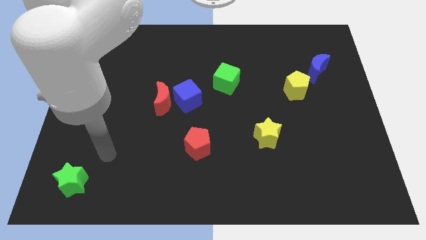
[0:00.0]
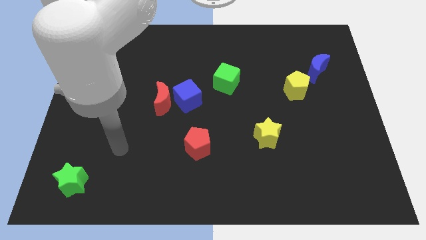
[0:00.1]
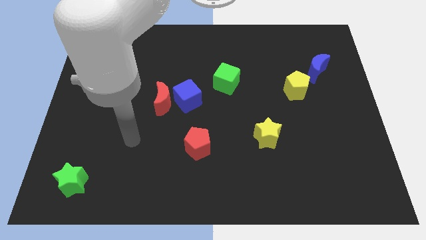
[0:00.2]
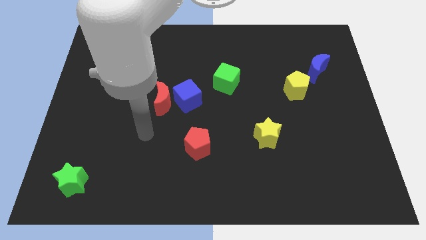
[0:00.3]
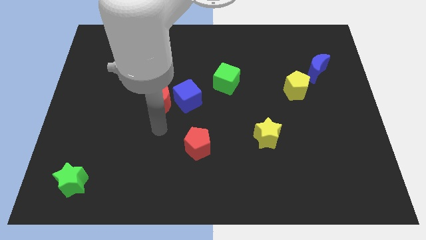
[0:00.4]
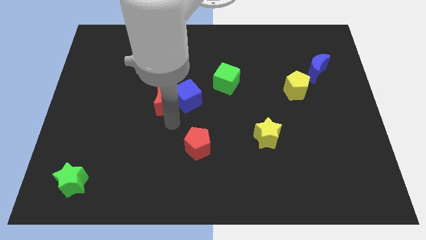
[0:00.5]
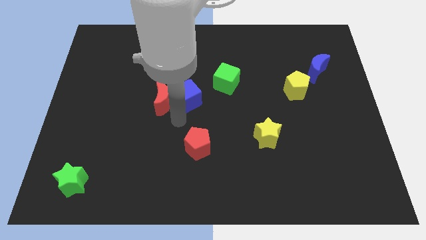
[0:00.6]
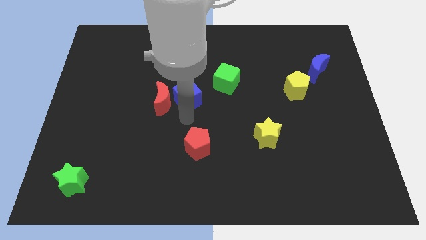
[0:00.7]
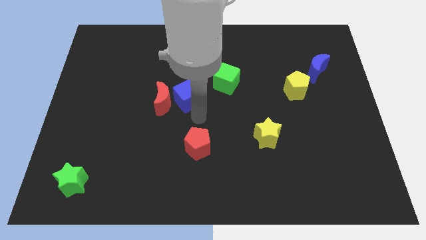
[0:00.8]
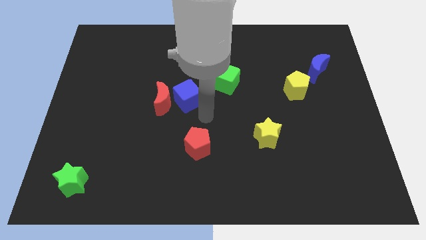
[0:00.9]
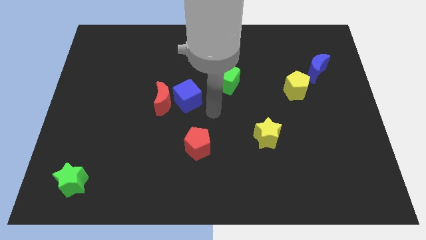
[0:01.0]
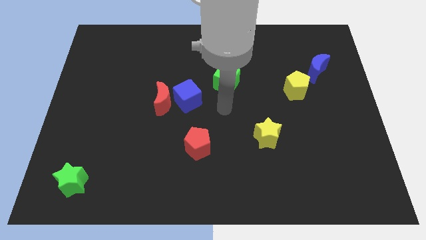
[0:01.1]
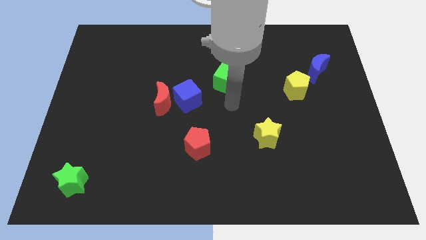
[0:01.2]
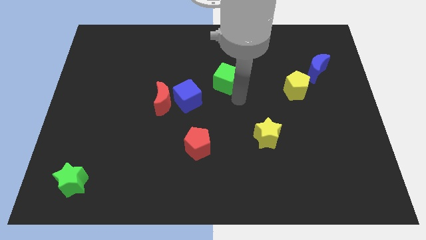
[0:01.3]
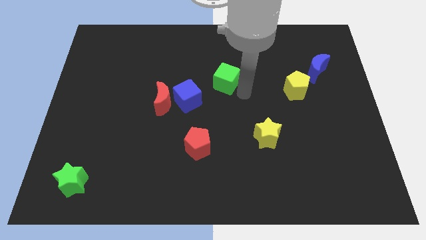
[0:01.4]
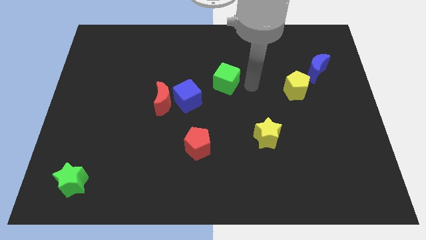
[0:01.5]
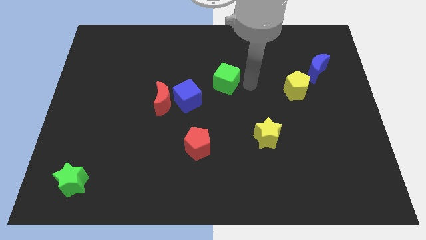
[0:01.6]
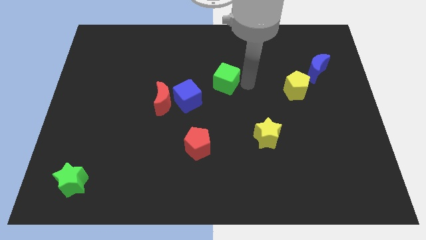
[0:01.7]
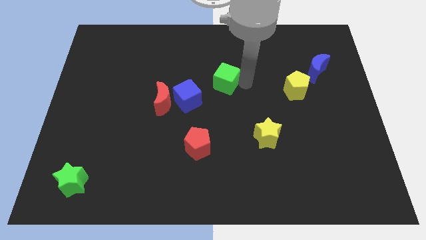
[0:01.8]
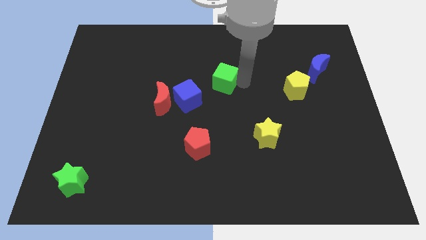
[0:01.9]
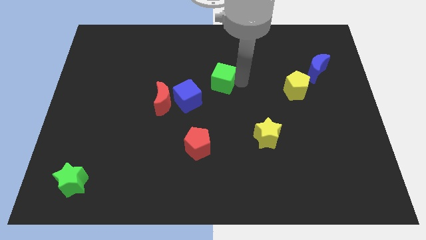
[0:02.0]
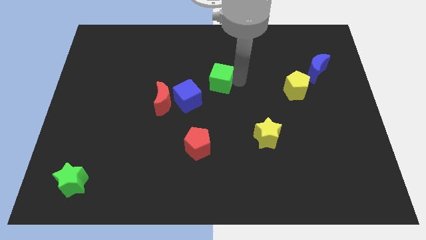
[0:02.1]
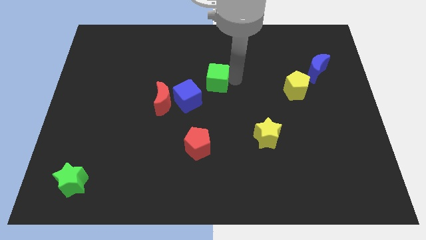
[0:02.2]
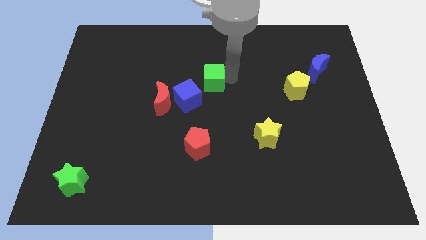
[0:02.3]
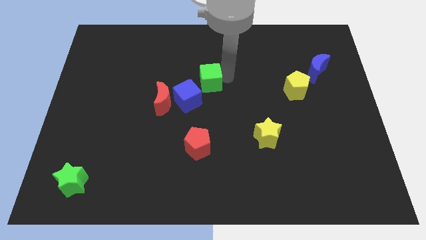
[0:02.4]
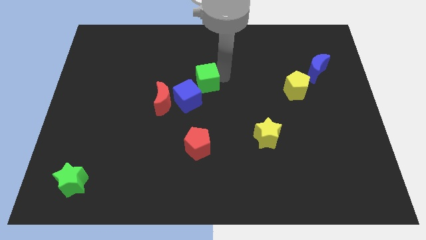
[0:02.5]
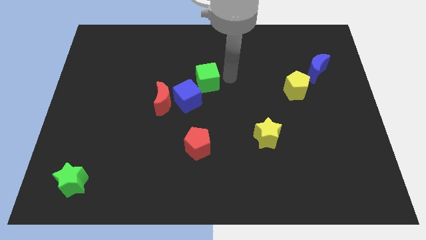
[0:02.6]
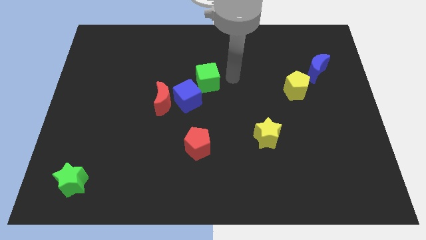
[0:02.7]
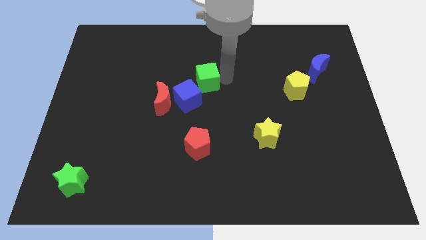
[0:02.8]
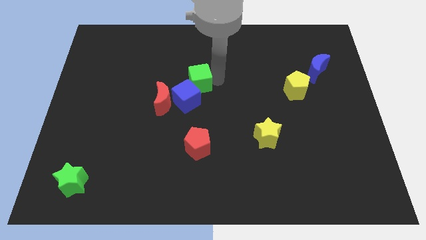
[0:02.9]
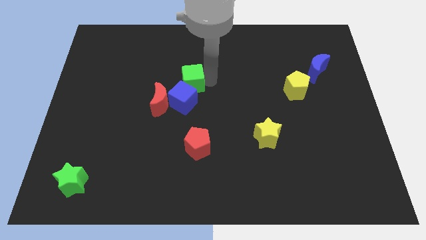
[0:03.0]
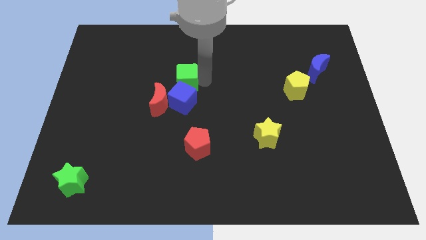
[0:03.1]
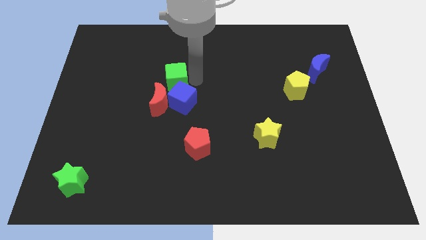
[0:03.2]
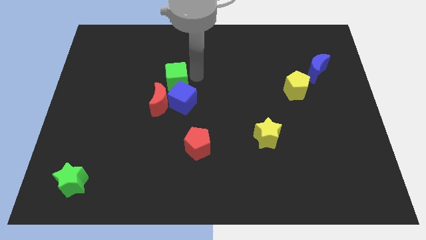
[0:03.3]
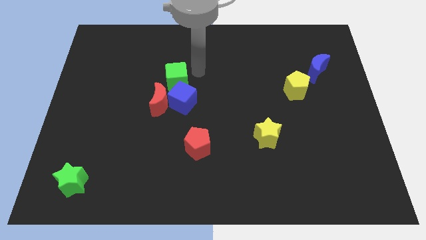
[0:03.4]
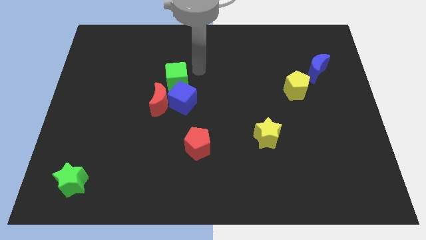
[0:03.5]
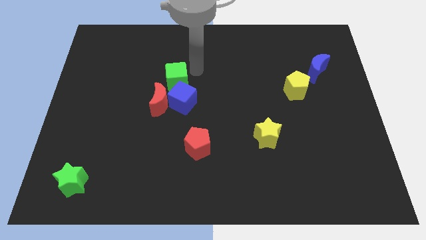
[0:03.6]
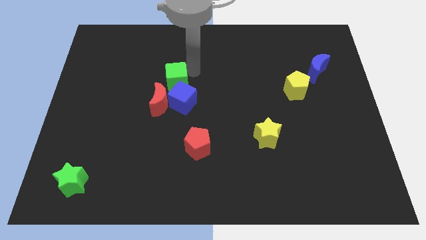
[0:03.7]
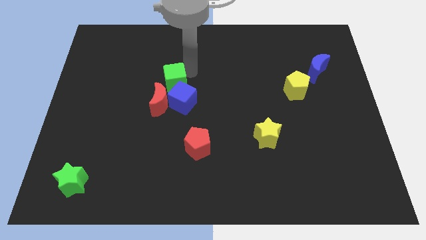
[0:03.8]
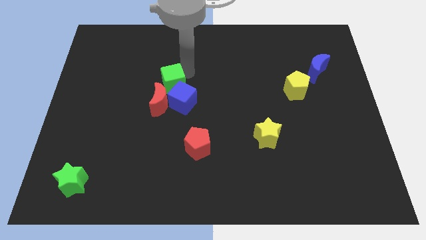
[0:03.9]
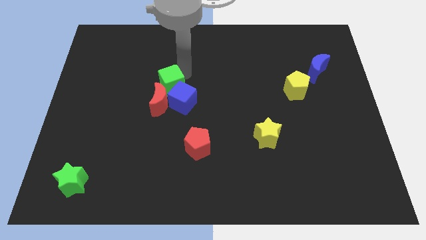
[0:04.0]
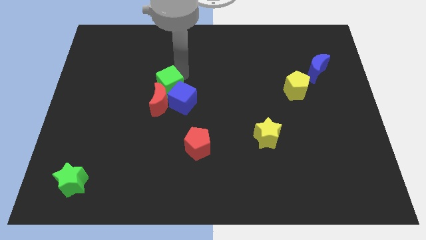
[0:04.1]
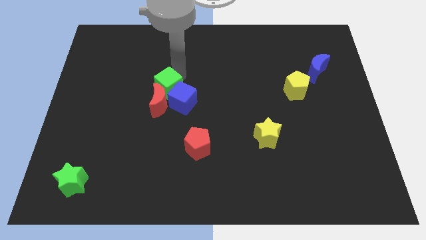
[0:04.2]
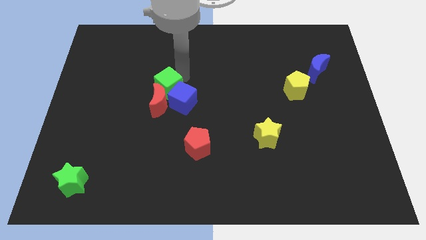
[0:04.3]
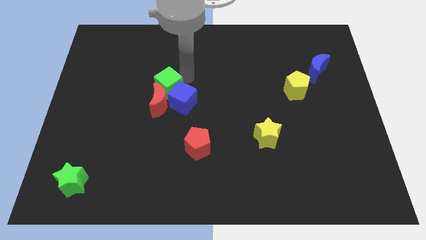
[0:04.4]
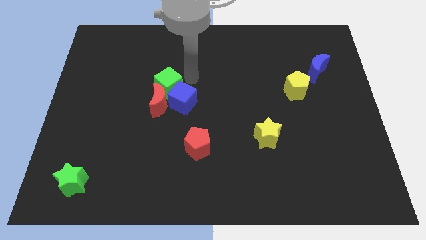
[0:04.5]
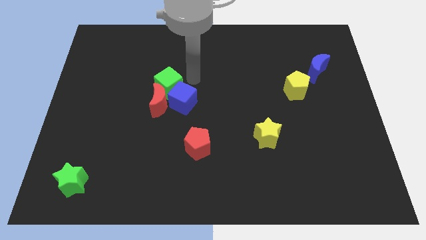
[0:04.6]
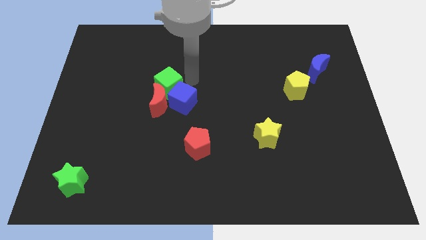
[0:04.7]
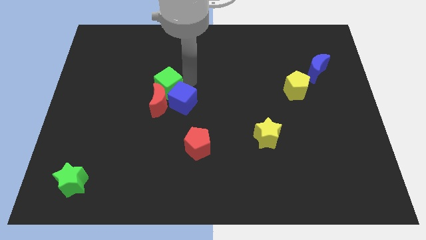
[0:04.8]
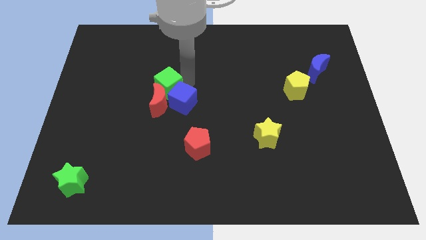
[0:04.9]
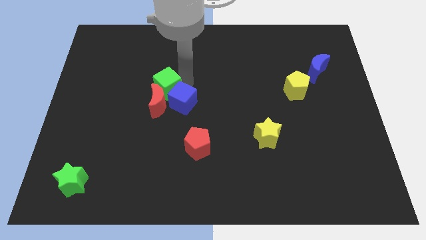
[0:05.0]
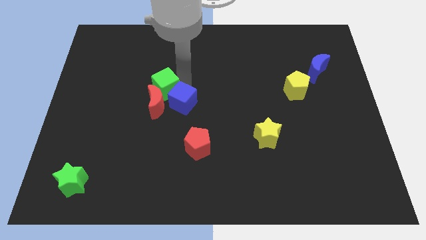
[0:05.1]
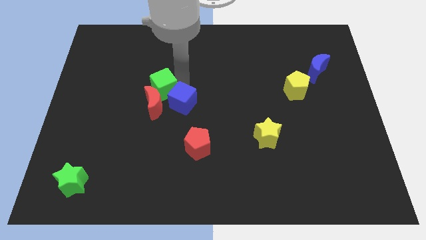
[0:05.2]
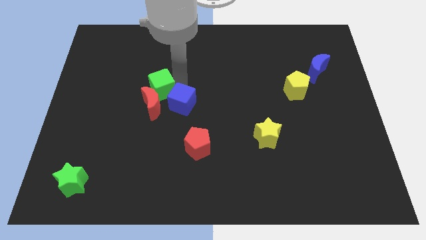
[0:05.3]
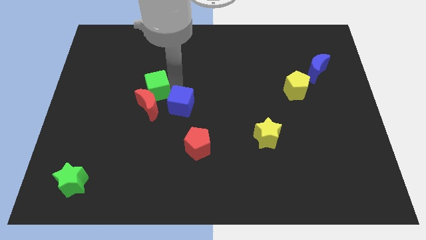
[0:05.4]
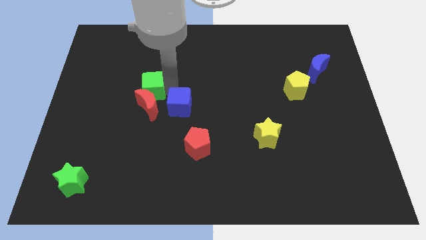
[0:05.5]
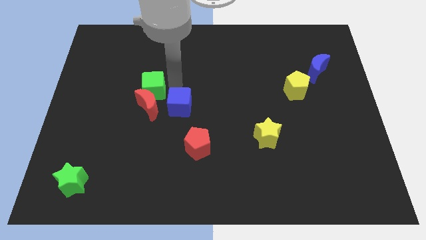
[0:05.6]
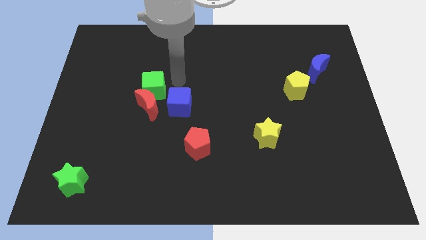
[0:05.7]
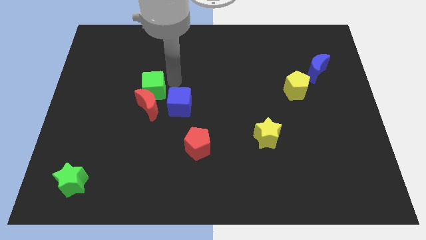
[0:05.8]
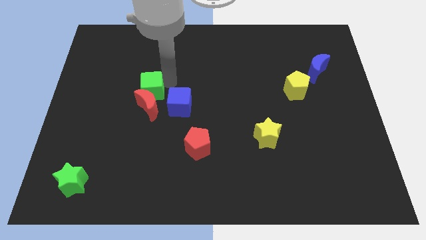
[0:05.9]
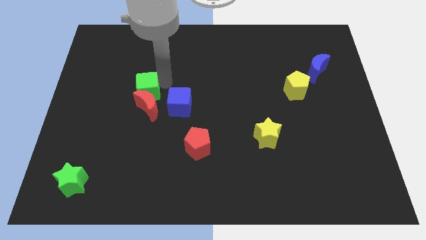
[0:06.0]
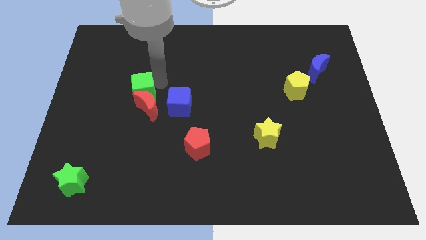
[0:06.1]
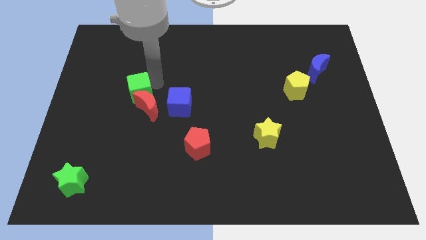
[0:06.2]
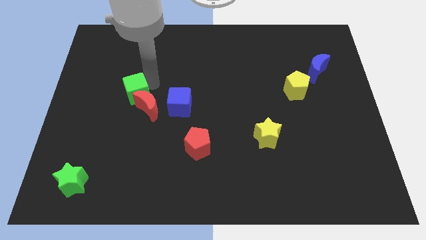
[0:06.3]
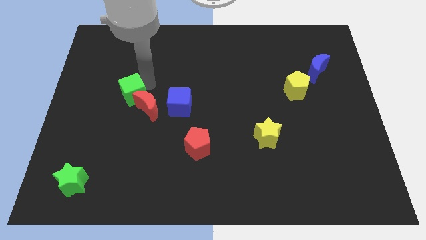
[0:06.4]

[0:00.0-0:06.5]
put the green cube just left of the red moon
